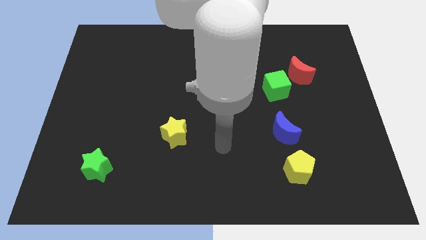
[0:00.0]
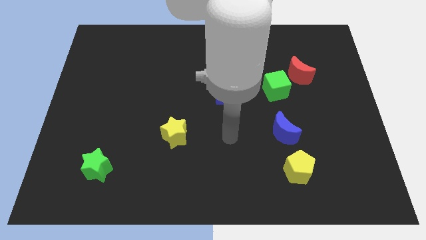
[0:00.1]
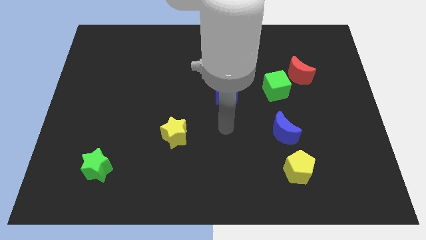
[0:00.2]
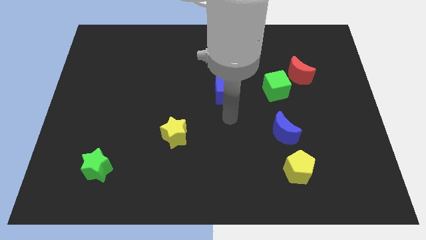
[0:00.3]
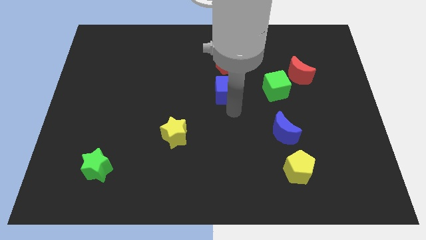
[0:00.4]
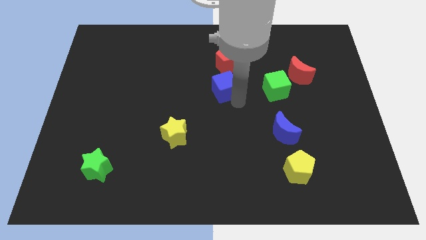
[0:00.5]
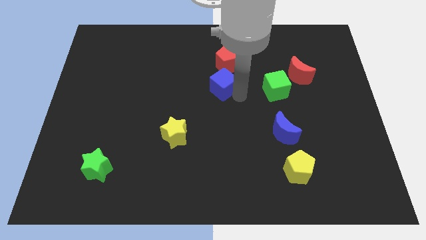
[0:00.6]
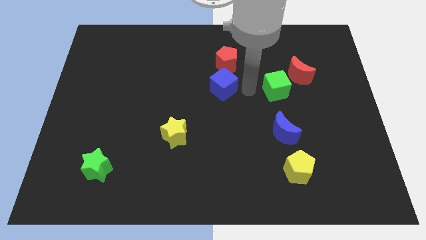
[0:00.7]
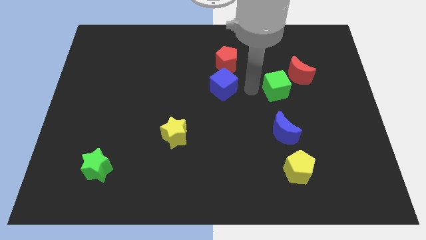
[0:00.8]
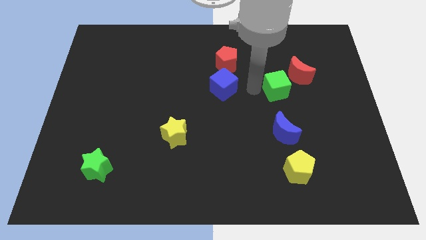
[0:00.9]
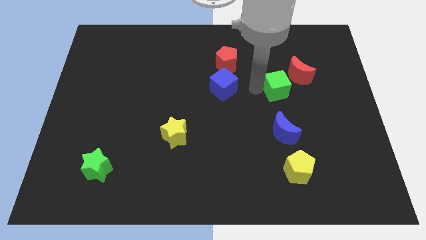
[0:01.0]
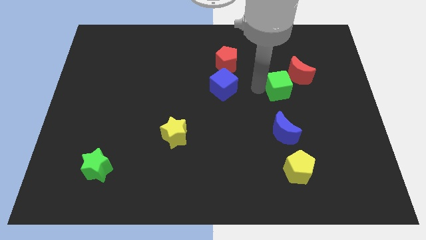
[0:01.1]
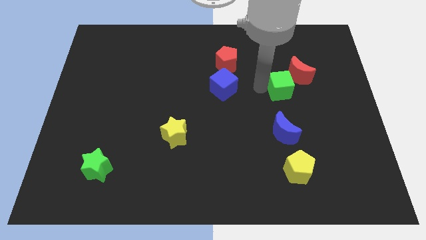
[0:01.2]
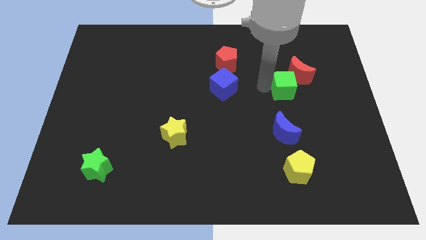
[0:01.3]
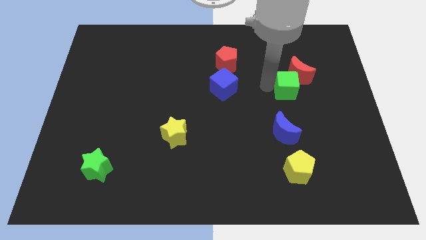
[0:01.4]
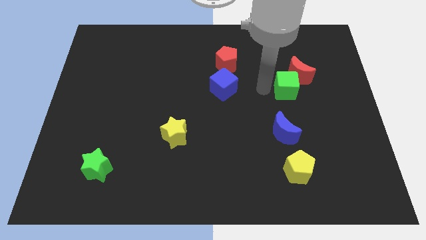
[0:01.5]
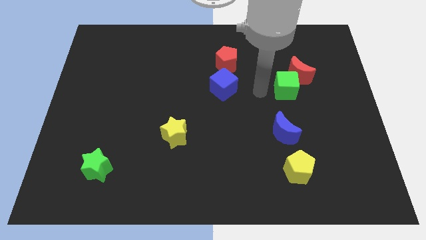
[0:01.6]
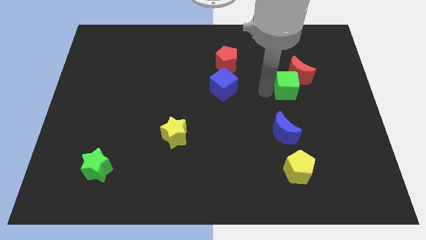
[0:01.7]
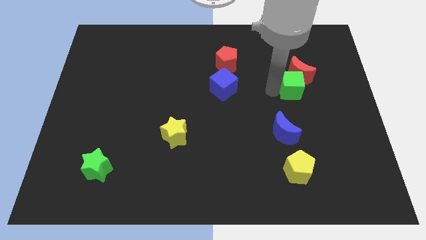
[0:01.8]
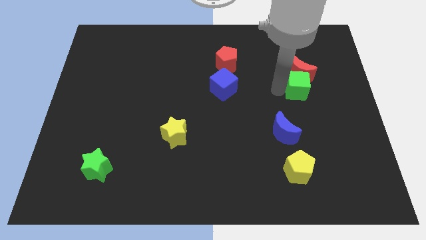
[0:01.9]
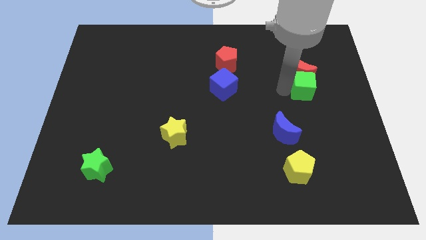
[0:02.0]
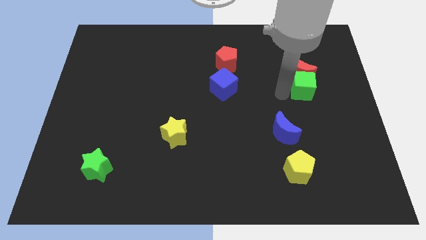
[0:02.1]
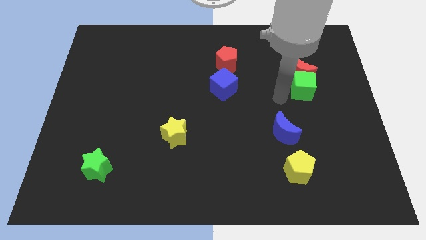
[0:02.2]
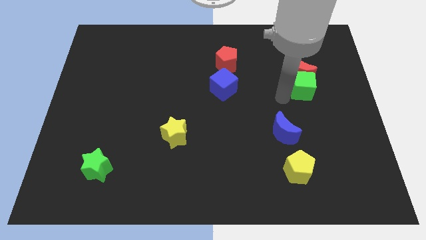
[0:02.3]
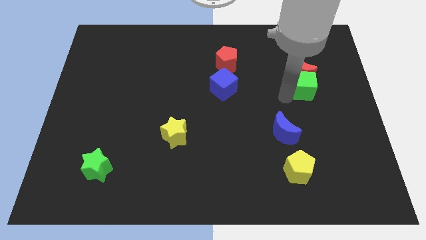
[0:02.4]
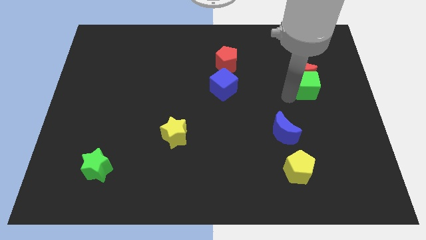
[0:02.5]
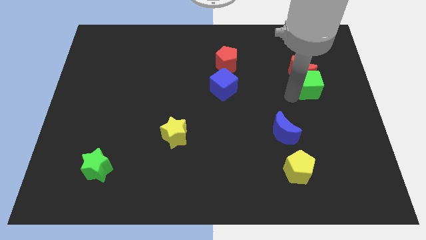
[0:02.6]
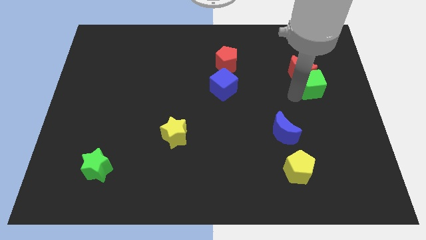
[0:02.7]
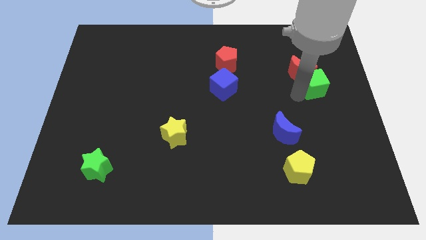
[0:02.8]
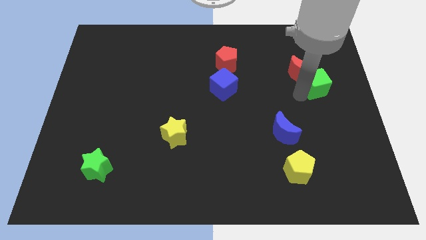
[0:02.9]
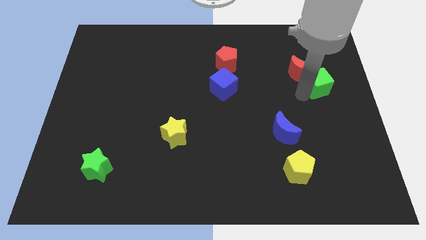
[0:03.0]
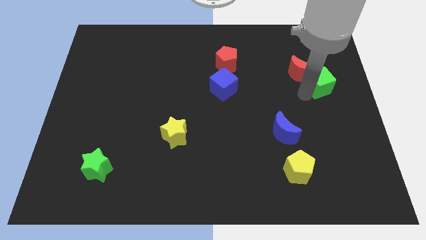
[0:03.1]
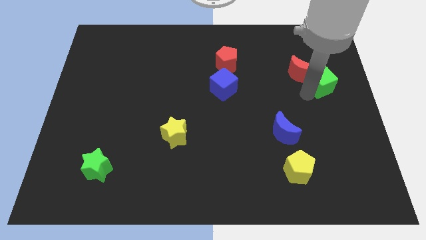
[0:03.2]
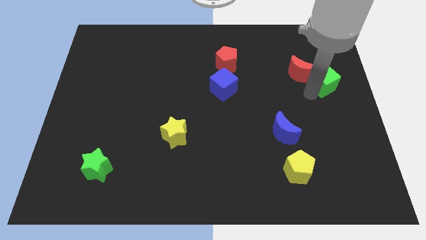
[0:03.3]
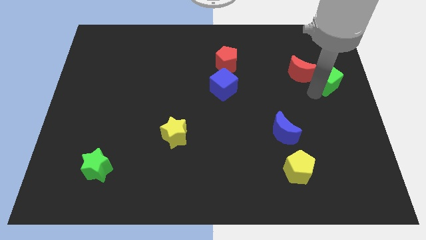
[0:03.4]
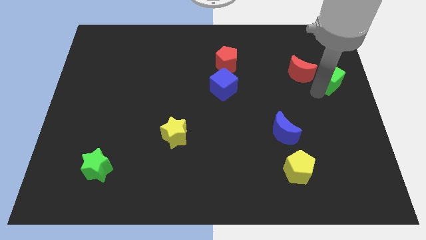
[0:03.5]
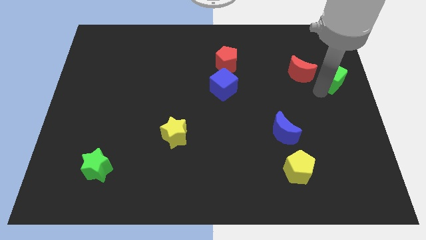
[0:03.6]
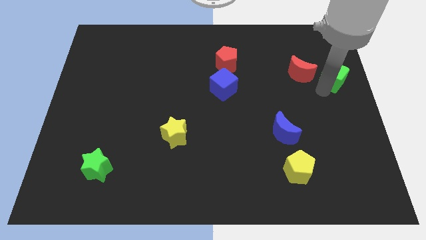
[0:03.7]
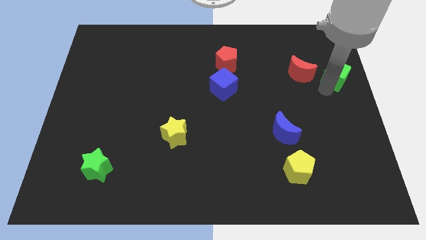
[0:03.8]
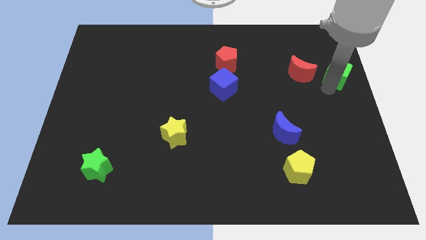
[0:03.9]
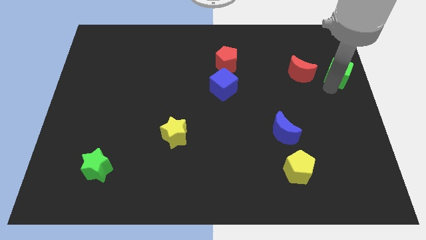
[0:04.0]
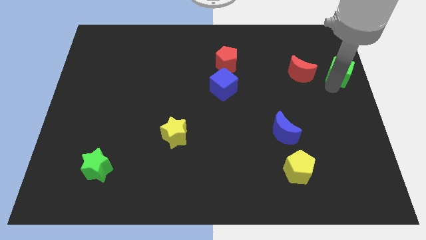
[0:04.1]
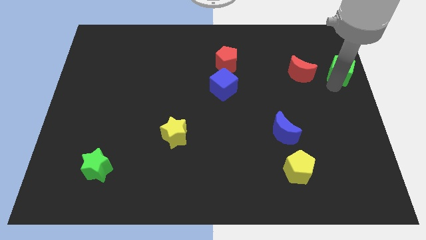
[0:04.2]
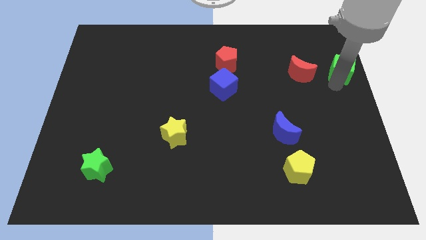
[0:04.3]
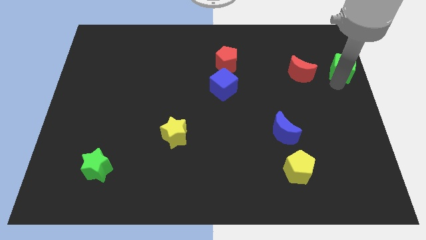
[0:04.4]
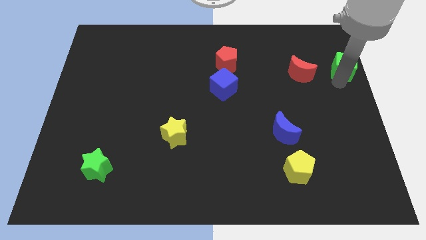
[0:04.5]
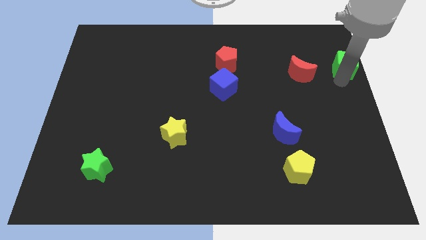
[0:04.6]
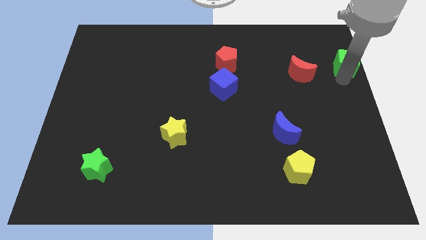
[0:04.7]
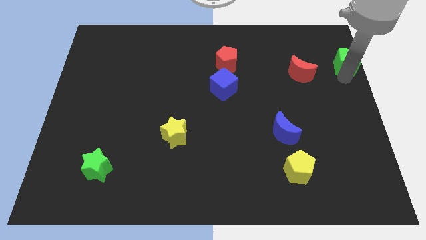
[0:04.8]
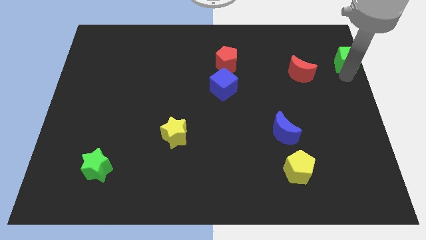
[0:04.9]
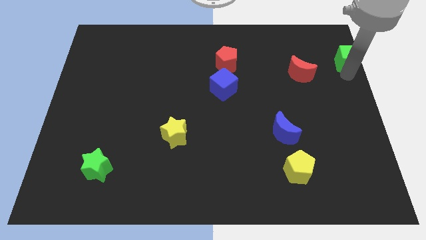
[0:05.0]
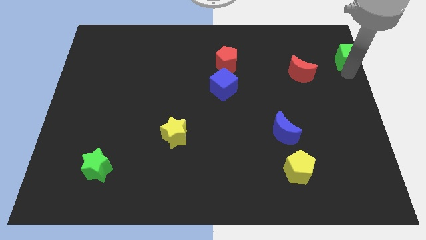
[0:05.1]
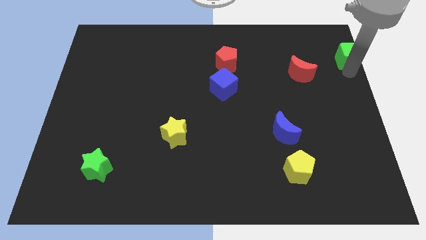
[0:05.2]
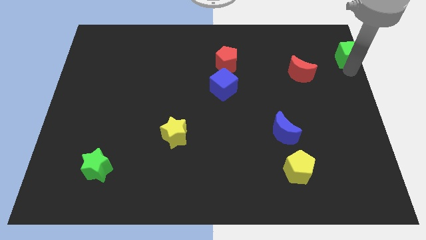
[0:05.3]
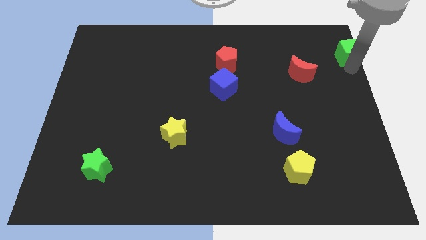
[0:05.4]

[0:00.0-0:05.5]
move the green cube to the top right corner

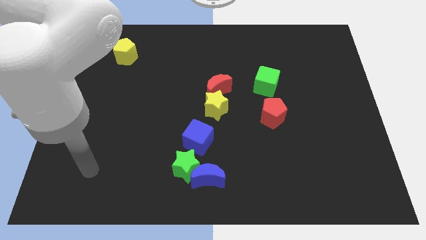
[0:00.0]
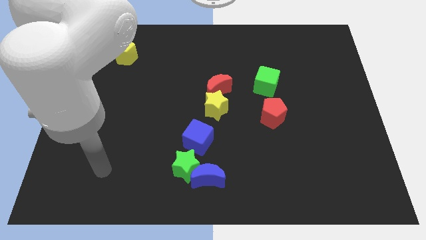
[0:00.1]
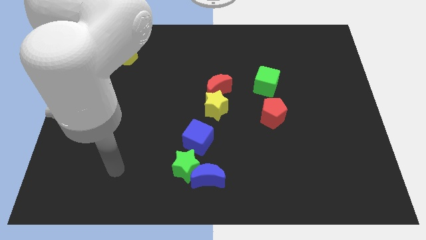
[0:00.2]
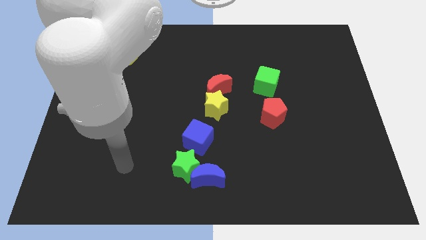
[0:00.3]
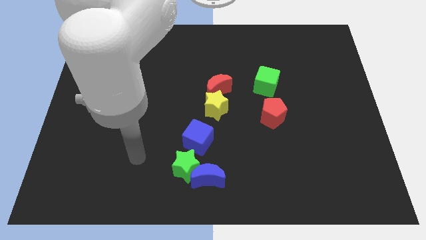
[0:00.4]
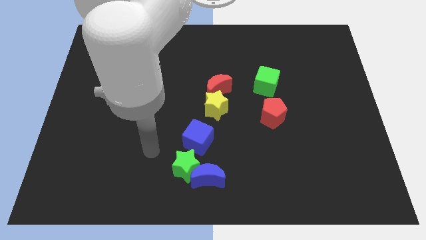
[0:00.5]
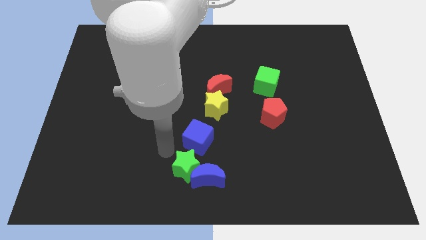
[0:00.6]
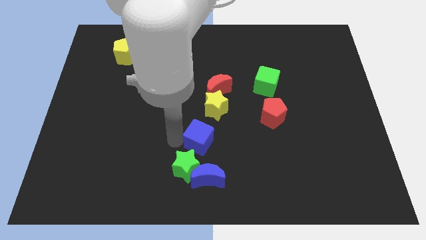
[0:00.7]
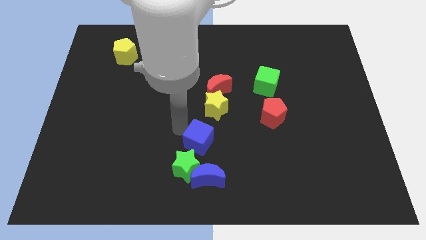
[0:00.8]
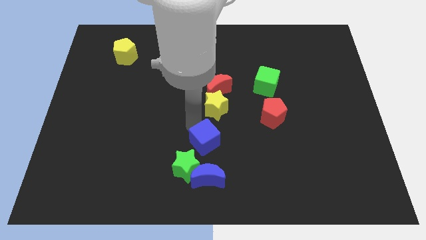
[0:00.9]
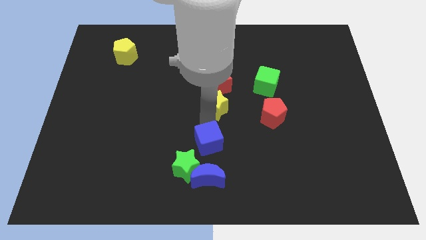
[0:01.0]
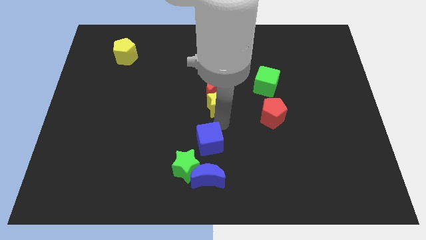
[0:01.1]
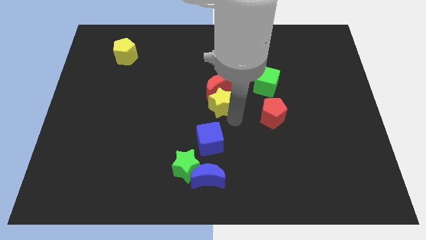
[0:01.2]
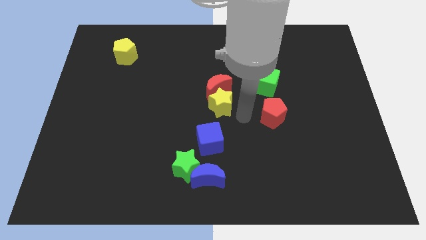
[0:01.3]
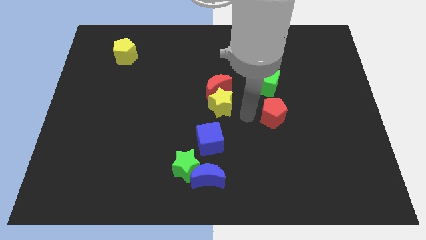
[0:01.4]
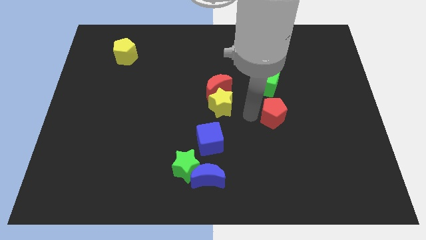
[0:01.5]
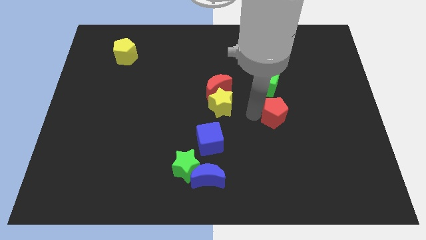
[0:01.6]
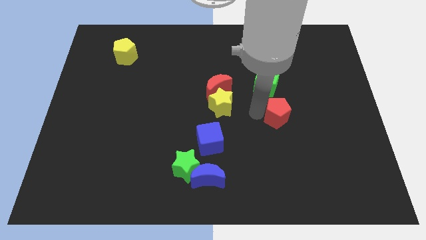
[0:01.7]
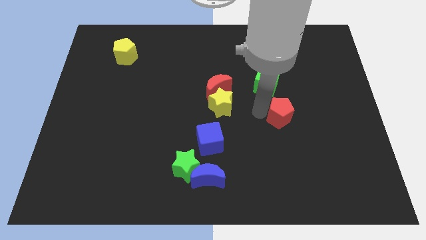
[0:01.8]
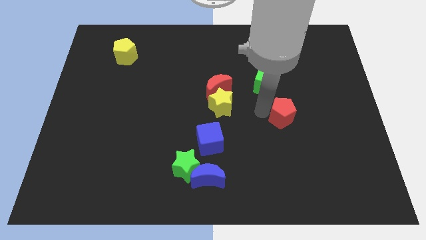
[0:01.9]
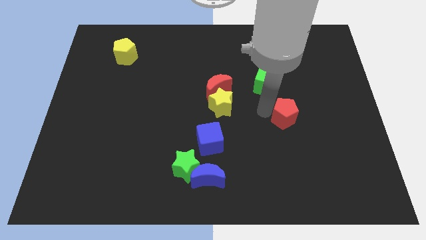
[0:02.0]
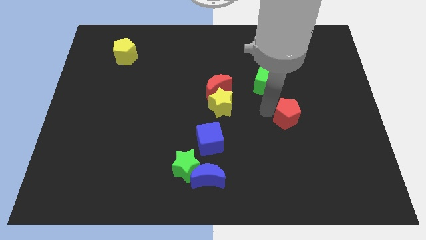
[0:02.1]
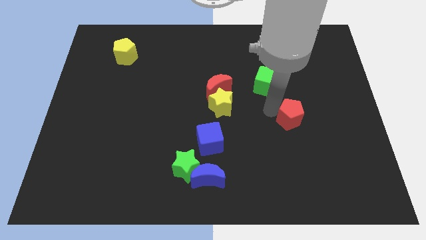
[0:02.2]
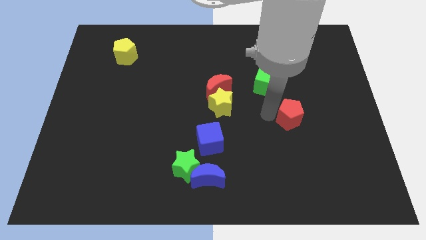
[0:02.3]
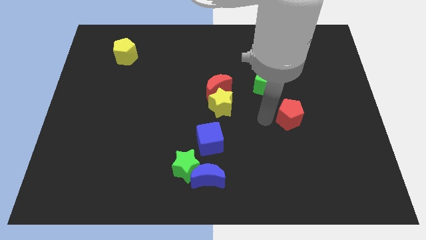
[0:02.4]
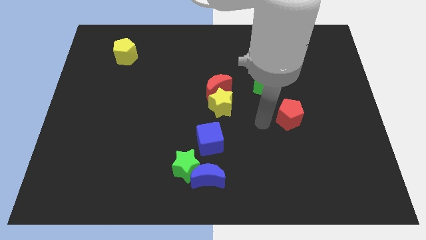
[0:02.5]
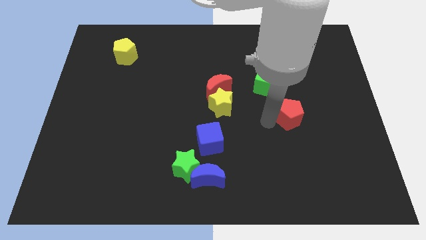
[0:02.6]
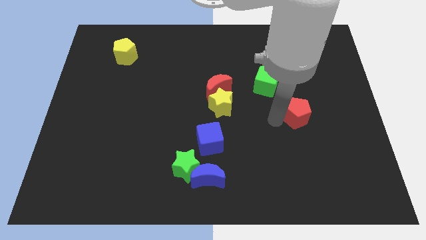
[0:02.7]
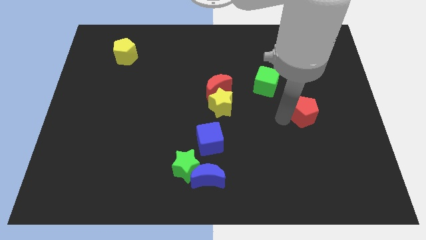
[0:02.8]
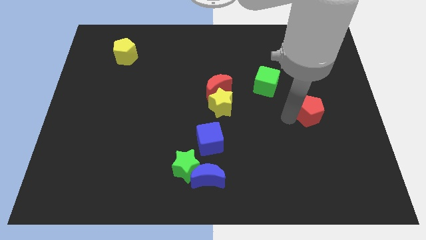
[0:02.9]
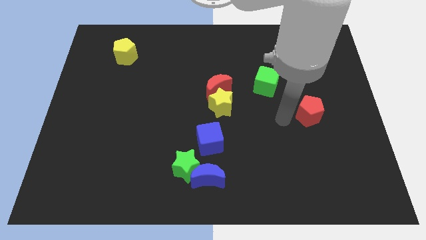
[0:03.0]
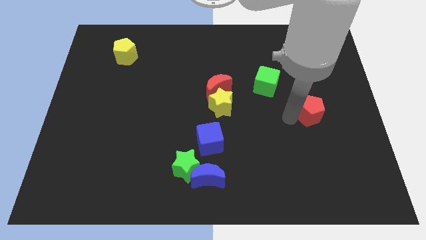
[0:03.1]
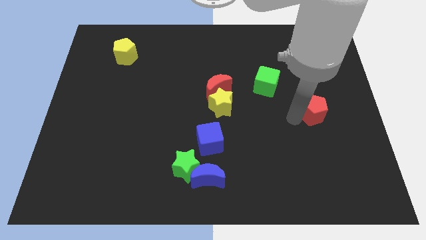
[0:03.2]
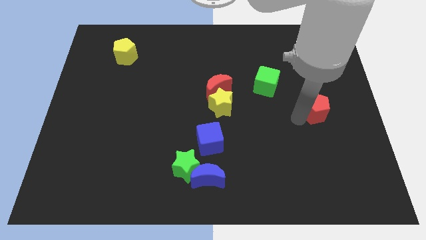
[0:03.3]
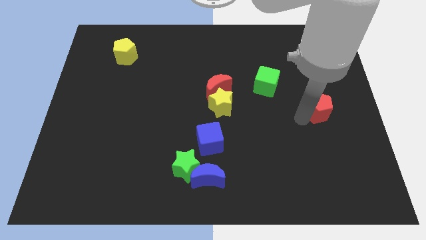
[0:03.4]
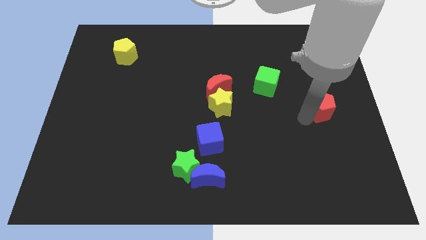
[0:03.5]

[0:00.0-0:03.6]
push the red pentagon to the right side of the board
